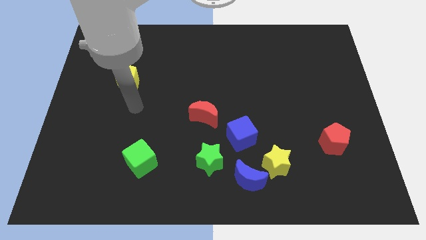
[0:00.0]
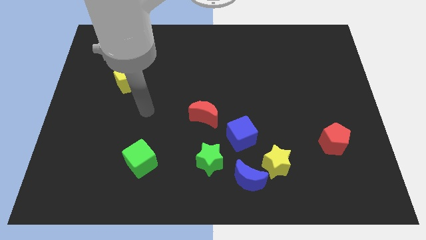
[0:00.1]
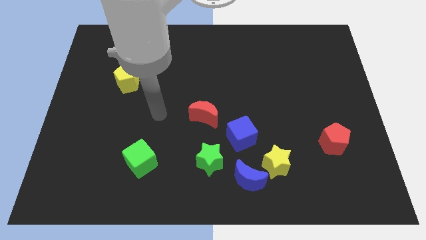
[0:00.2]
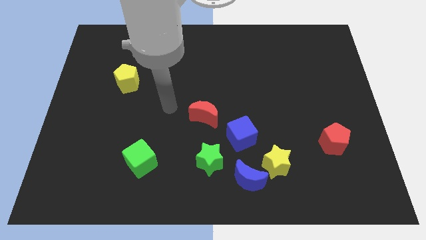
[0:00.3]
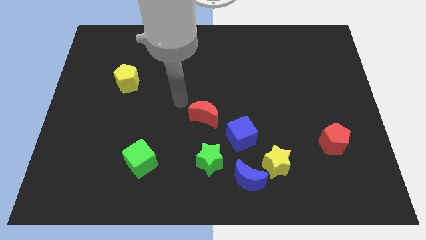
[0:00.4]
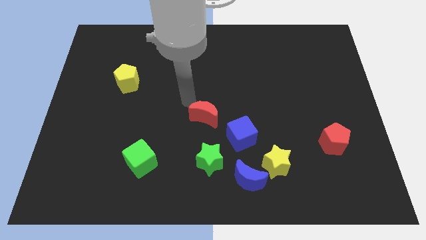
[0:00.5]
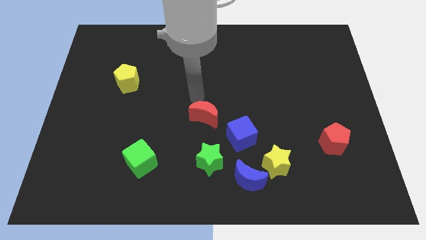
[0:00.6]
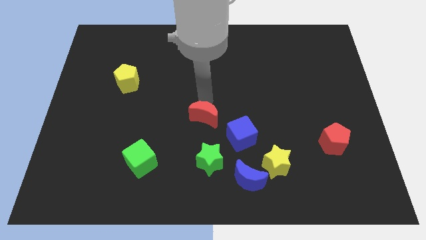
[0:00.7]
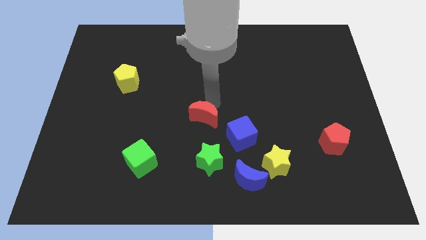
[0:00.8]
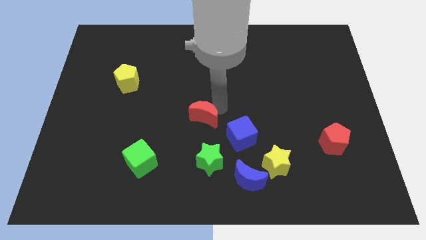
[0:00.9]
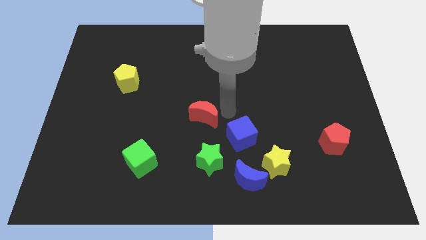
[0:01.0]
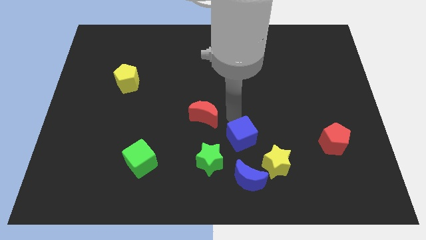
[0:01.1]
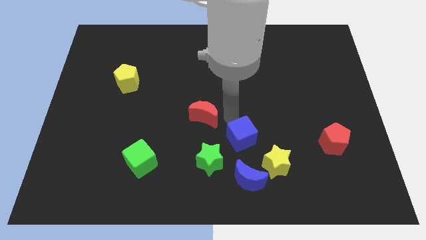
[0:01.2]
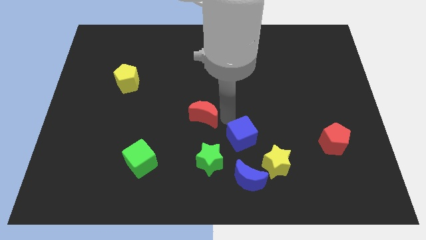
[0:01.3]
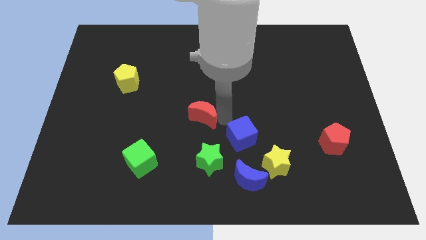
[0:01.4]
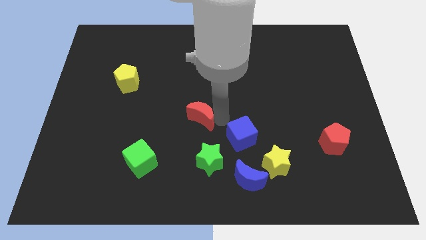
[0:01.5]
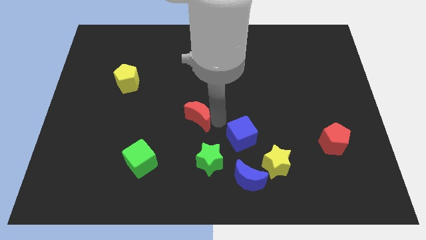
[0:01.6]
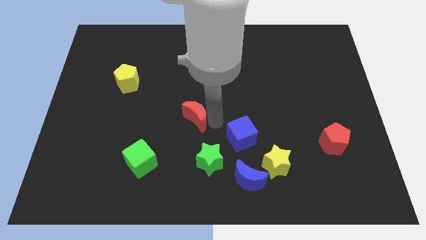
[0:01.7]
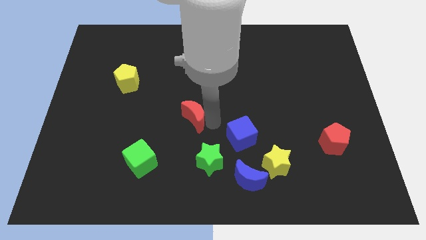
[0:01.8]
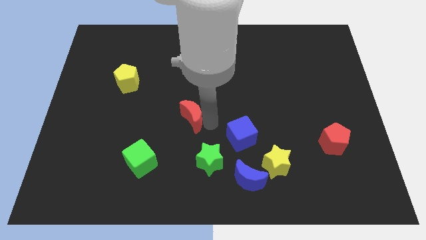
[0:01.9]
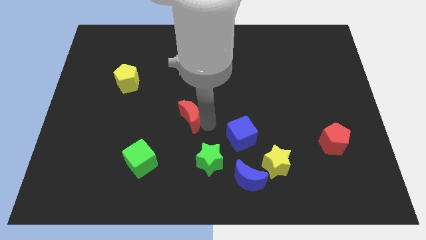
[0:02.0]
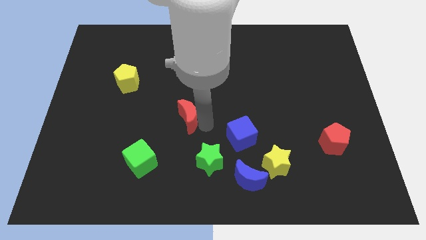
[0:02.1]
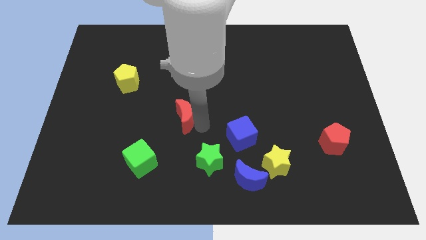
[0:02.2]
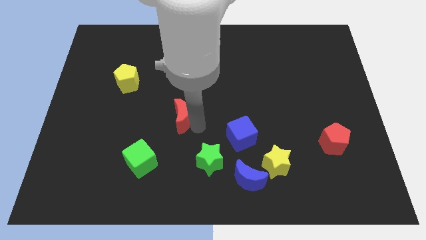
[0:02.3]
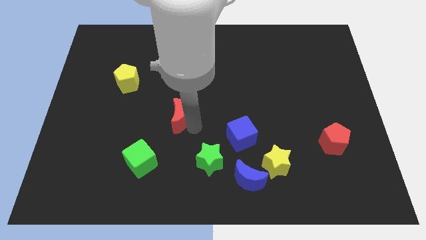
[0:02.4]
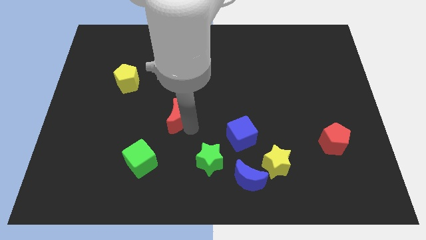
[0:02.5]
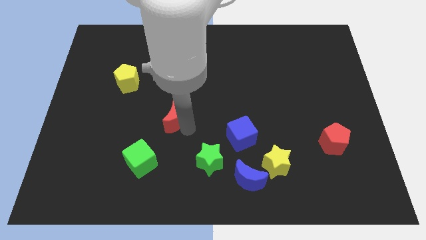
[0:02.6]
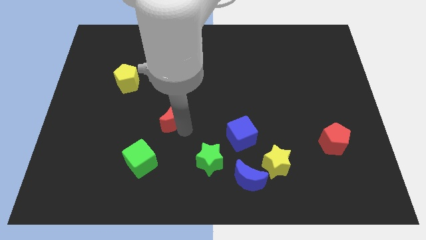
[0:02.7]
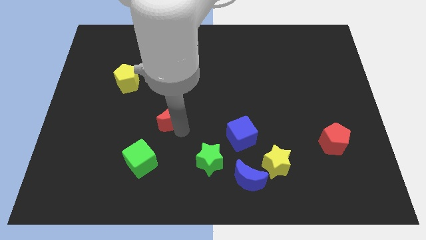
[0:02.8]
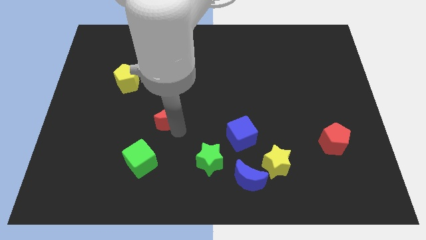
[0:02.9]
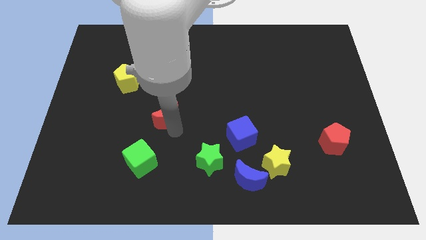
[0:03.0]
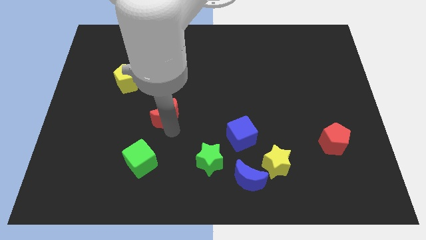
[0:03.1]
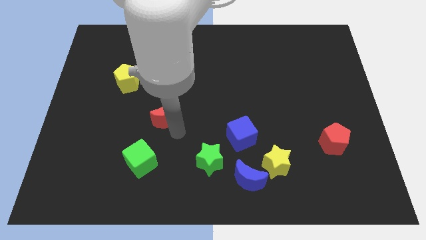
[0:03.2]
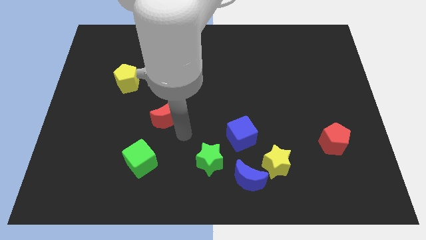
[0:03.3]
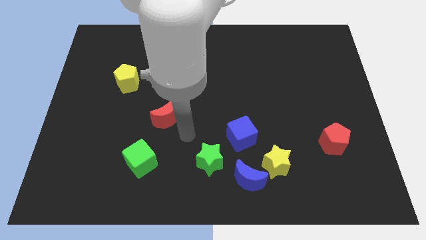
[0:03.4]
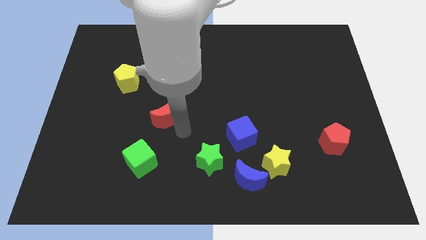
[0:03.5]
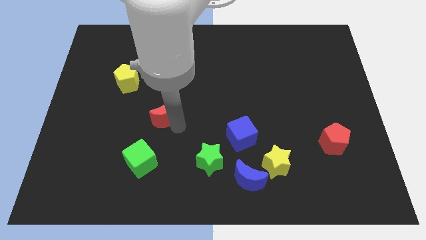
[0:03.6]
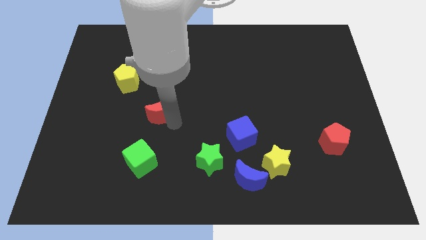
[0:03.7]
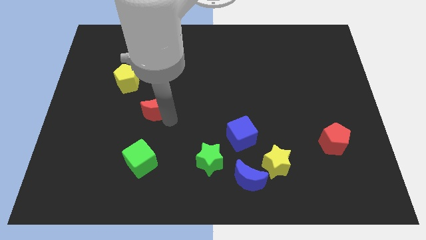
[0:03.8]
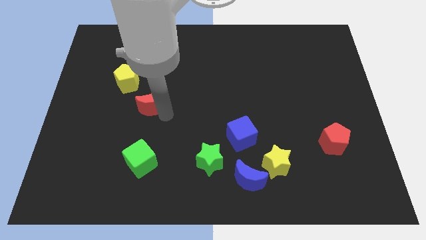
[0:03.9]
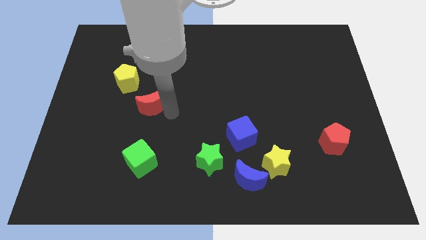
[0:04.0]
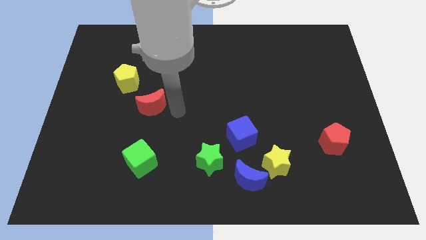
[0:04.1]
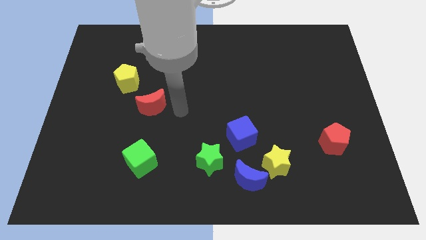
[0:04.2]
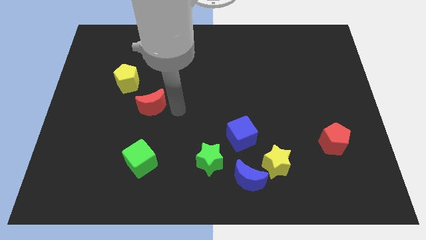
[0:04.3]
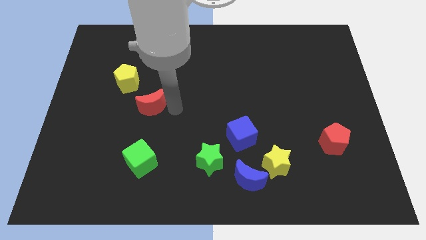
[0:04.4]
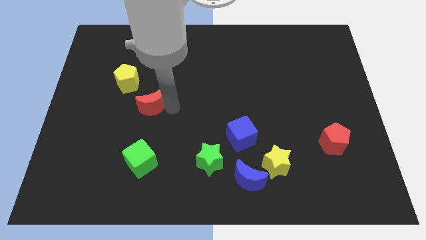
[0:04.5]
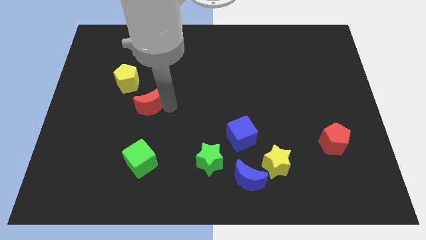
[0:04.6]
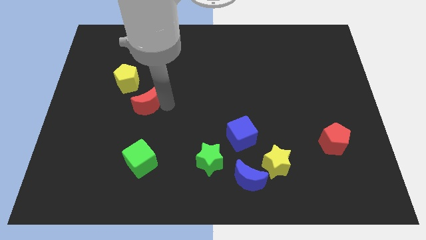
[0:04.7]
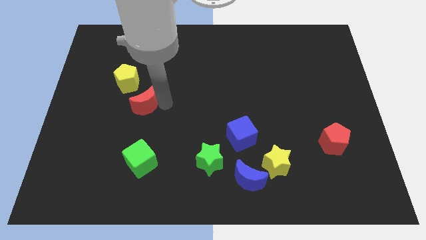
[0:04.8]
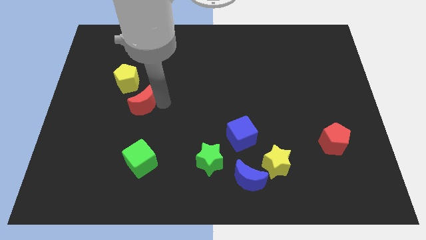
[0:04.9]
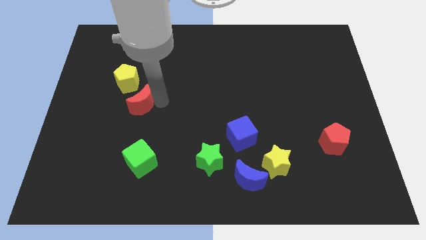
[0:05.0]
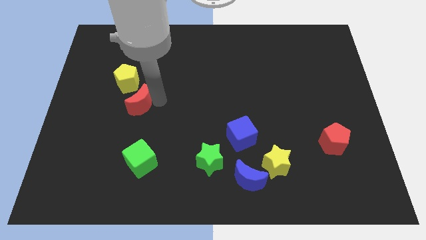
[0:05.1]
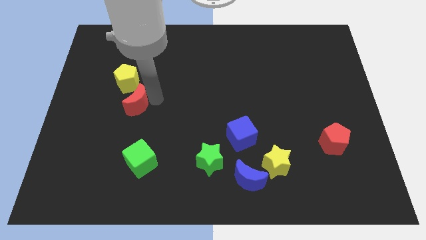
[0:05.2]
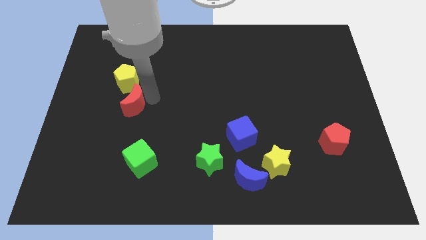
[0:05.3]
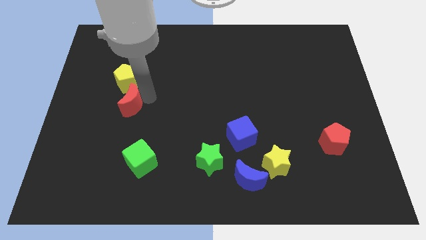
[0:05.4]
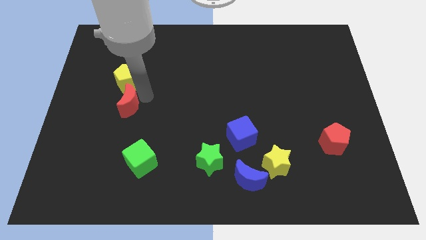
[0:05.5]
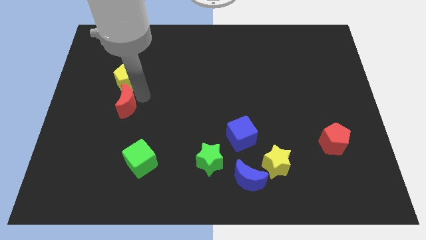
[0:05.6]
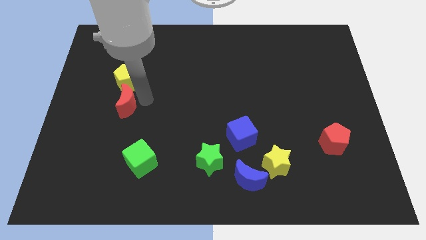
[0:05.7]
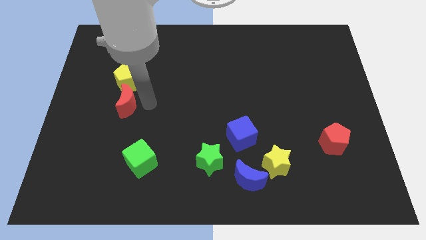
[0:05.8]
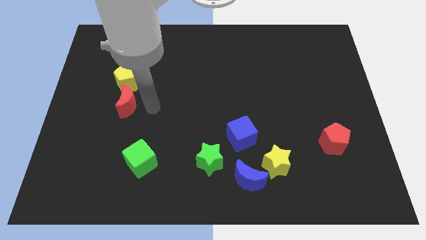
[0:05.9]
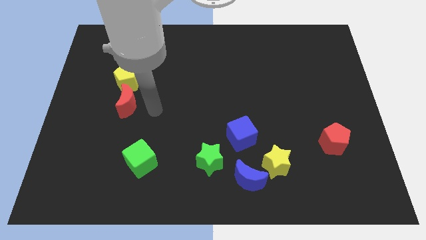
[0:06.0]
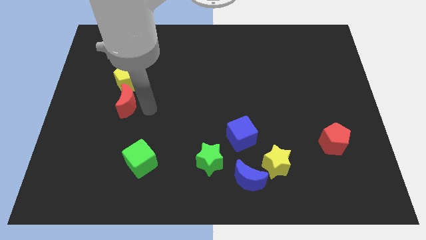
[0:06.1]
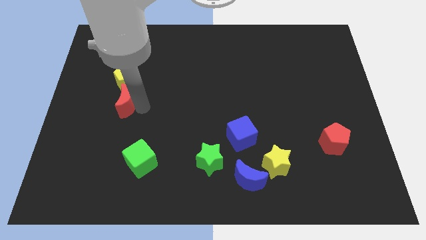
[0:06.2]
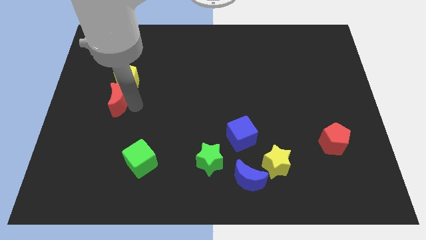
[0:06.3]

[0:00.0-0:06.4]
put the red moon to the bottom left of the yellow pentagon
